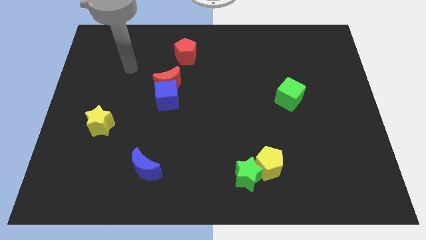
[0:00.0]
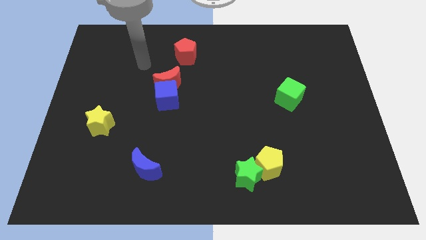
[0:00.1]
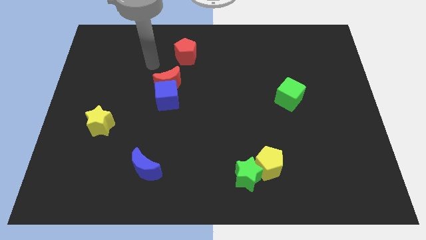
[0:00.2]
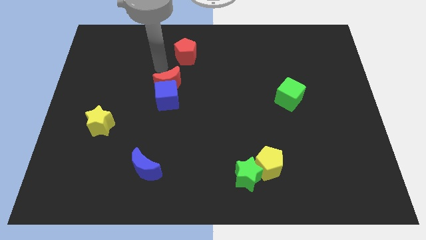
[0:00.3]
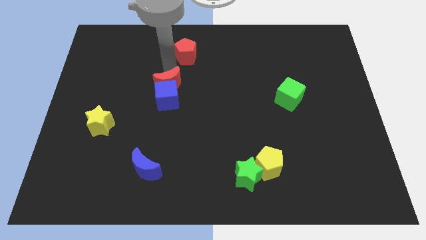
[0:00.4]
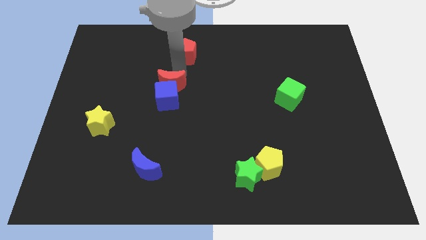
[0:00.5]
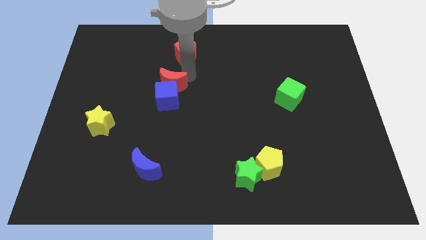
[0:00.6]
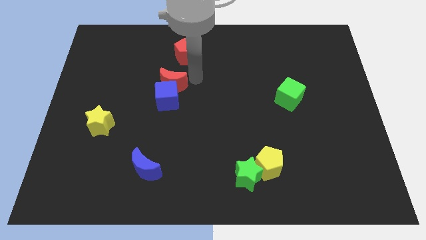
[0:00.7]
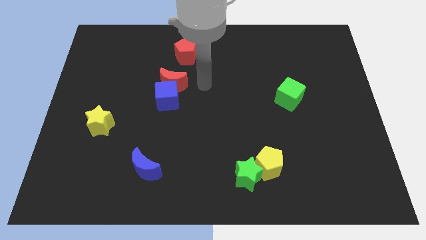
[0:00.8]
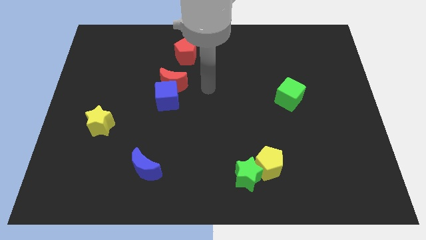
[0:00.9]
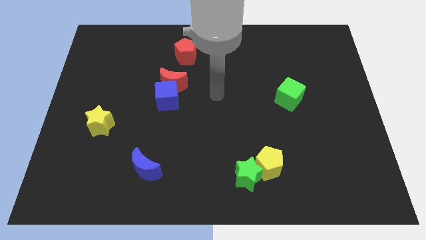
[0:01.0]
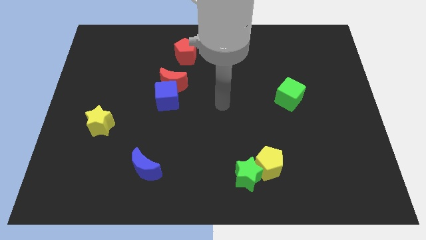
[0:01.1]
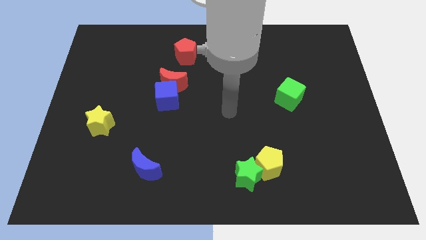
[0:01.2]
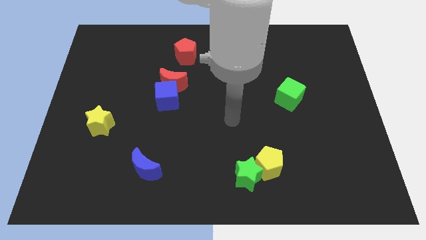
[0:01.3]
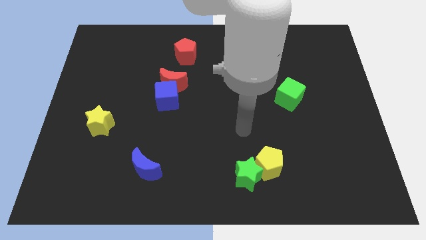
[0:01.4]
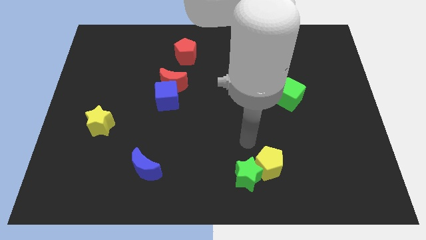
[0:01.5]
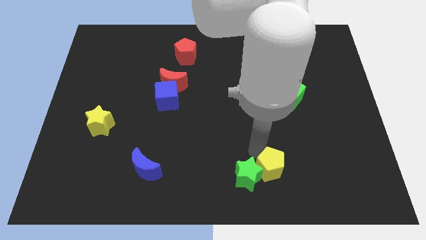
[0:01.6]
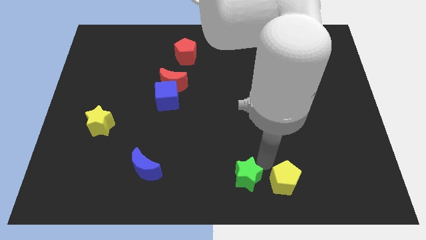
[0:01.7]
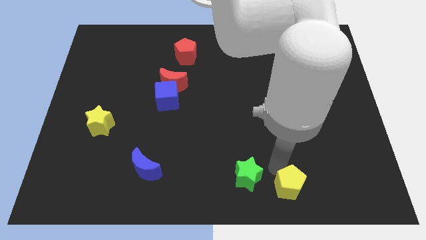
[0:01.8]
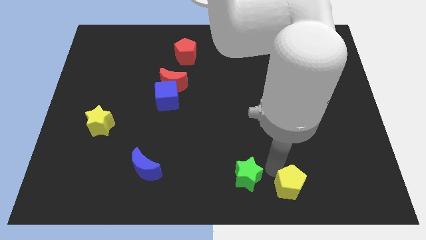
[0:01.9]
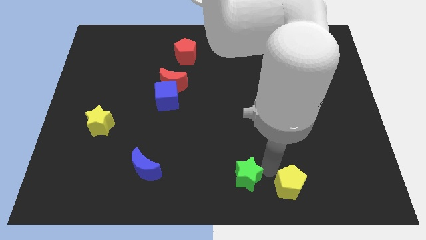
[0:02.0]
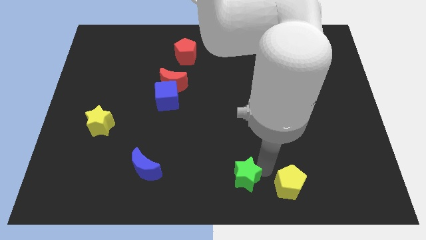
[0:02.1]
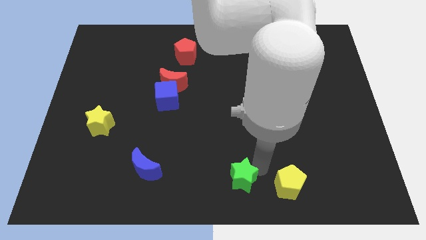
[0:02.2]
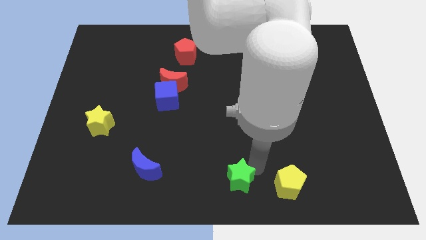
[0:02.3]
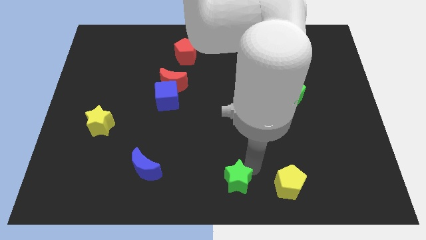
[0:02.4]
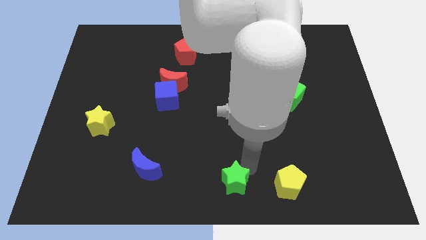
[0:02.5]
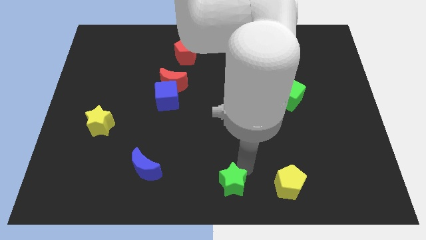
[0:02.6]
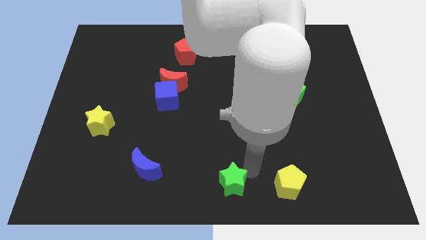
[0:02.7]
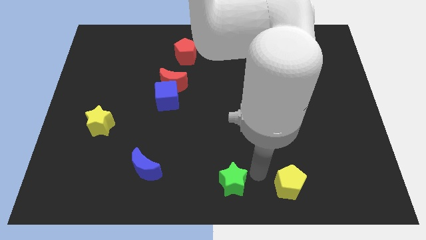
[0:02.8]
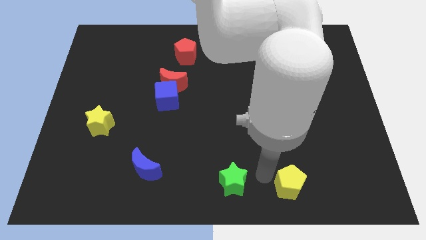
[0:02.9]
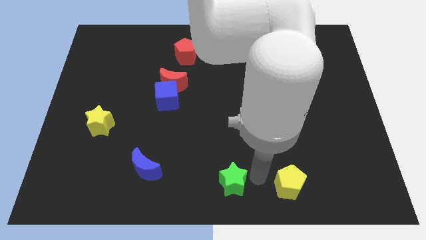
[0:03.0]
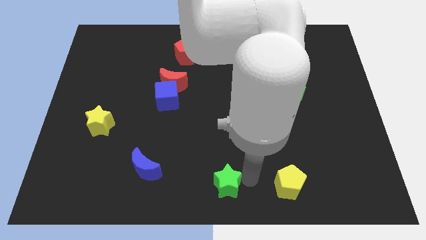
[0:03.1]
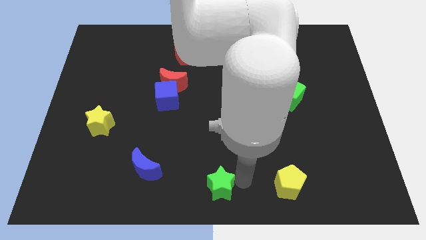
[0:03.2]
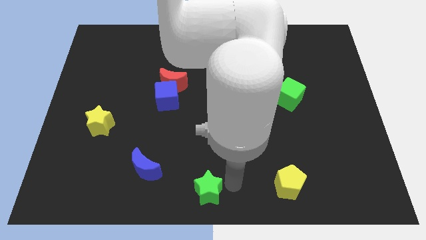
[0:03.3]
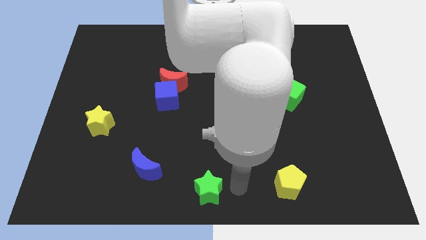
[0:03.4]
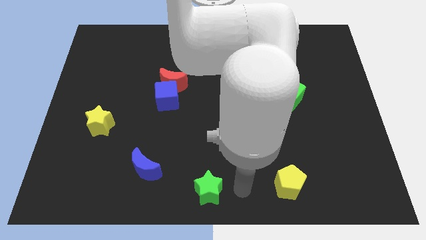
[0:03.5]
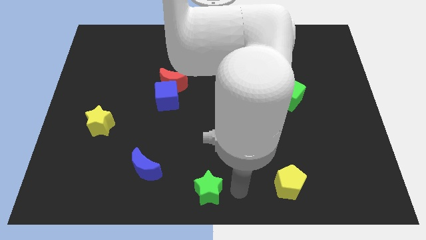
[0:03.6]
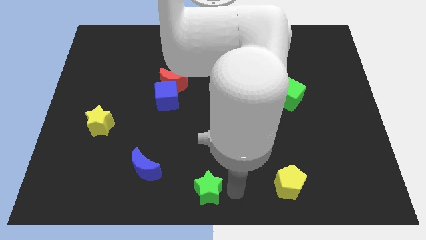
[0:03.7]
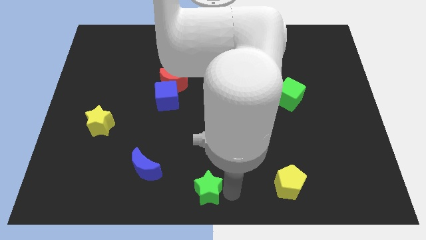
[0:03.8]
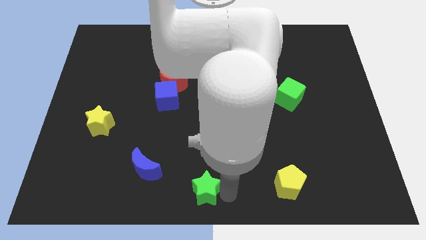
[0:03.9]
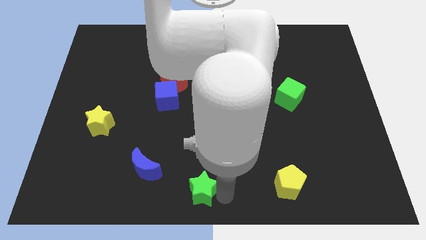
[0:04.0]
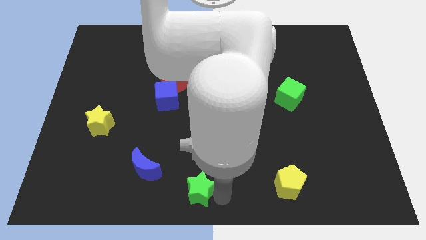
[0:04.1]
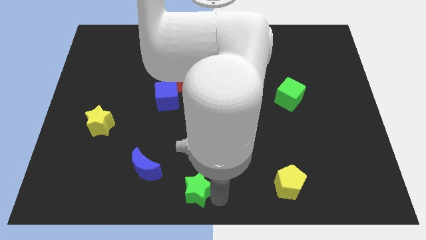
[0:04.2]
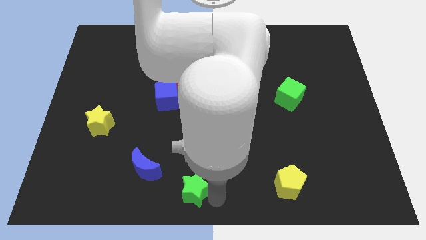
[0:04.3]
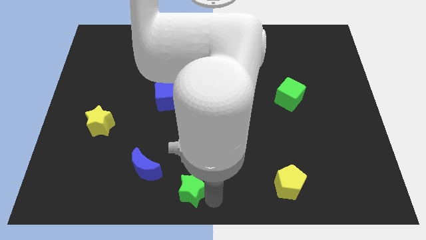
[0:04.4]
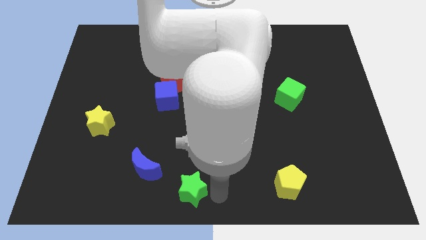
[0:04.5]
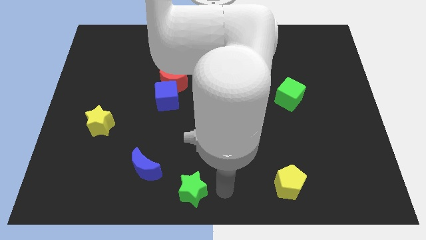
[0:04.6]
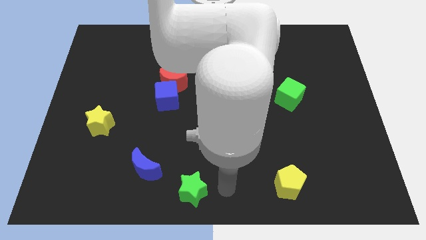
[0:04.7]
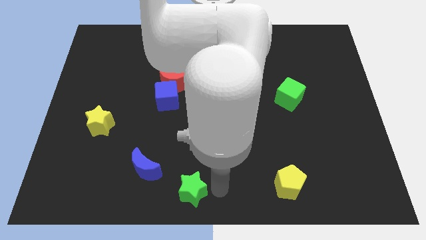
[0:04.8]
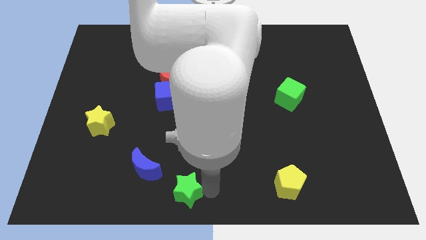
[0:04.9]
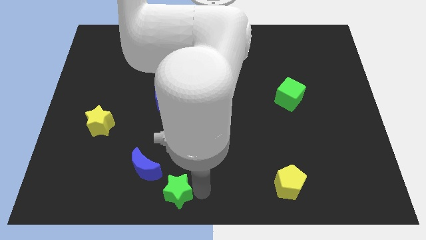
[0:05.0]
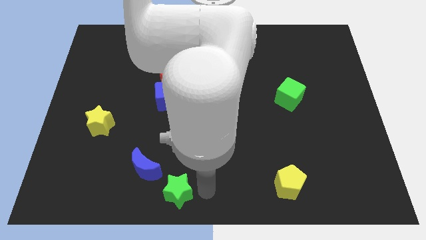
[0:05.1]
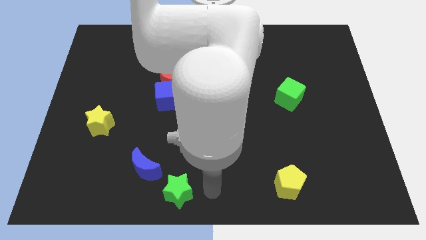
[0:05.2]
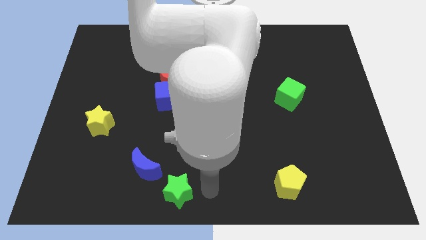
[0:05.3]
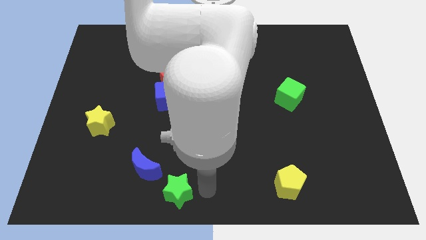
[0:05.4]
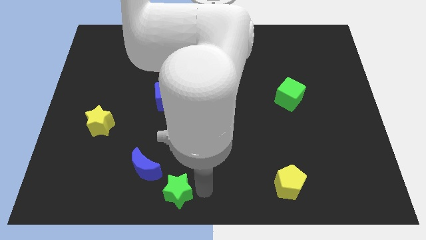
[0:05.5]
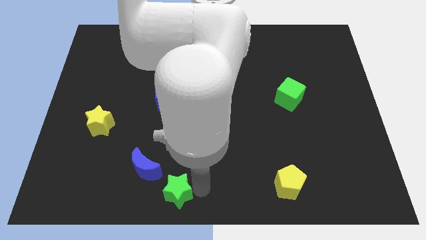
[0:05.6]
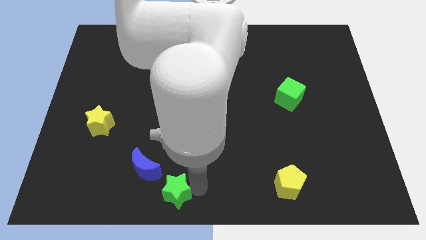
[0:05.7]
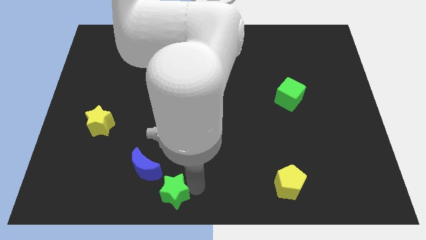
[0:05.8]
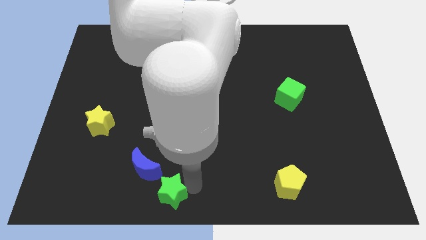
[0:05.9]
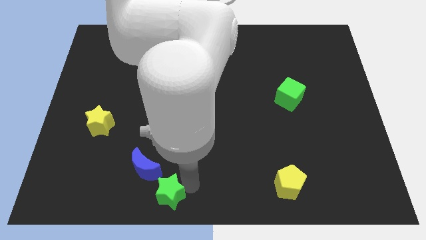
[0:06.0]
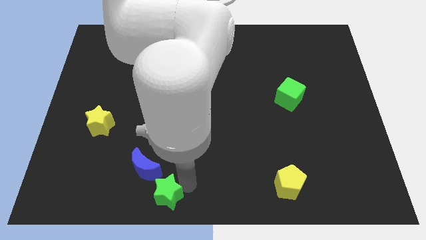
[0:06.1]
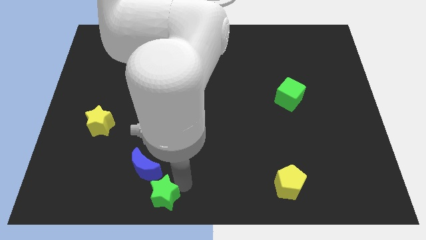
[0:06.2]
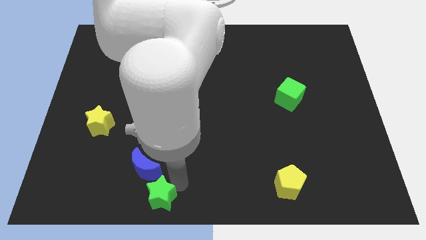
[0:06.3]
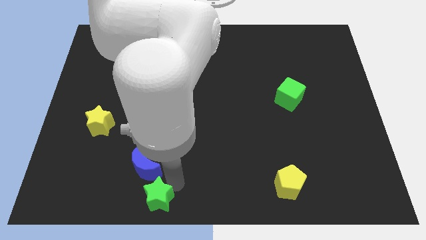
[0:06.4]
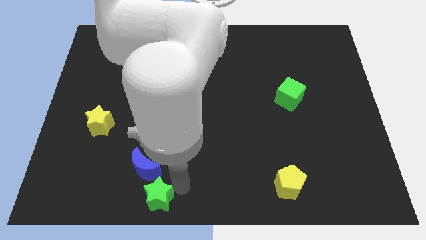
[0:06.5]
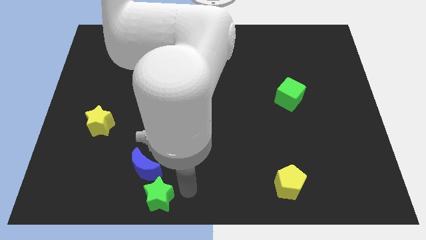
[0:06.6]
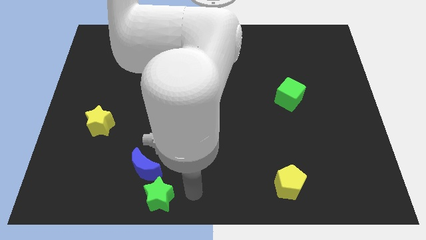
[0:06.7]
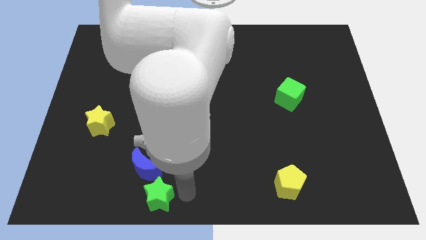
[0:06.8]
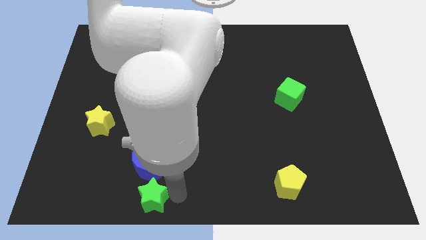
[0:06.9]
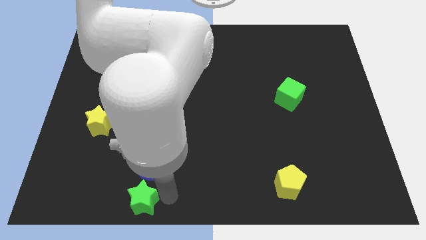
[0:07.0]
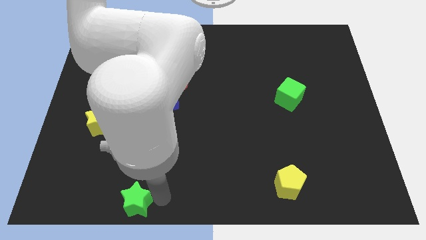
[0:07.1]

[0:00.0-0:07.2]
push the green star to the left

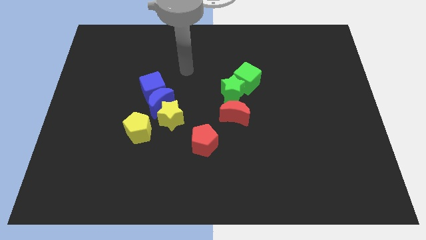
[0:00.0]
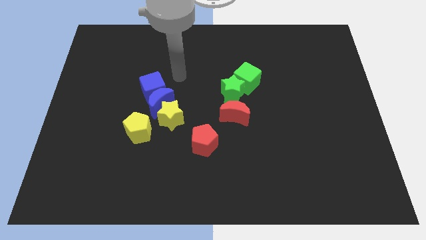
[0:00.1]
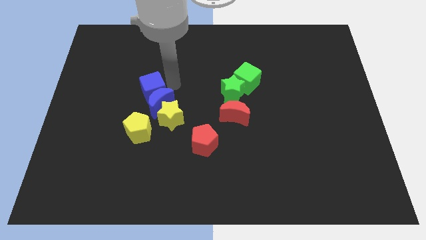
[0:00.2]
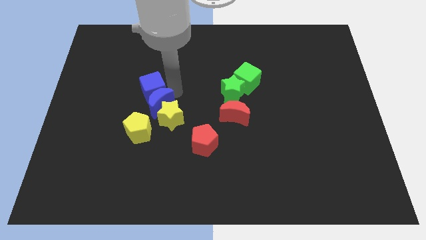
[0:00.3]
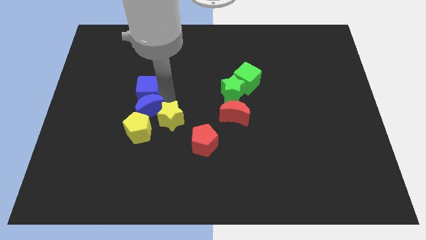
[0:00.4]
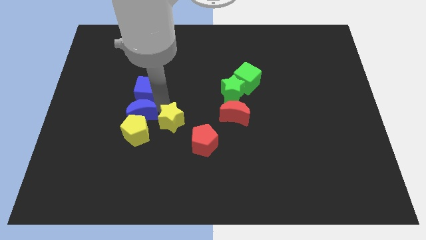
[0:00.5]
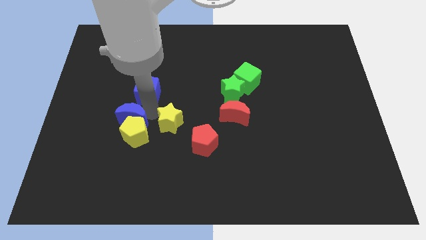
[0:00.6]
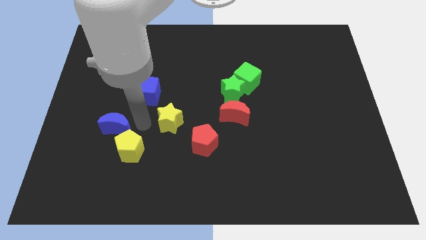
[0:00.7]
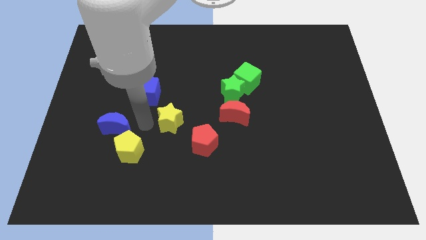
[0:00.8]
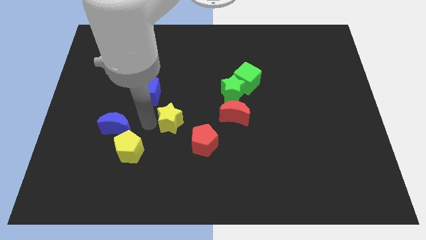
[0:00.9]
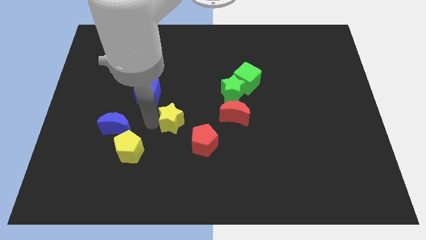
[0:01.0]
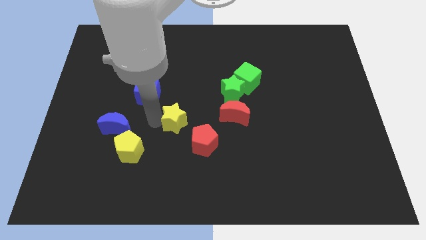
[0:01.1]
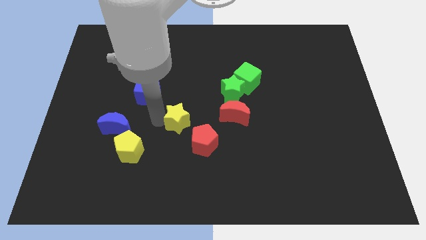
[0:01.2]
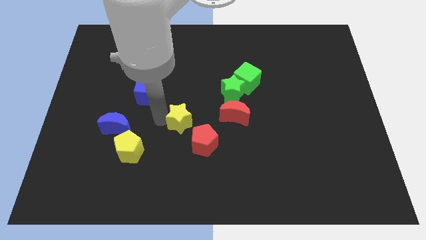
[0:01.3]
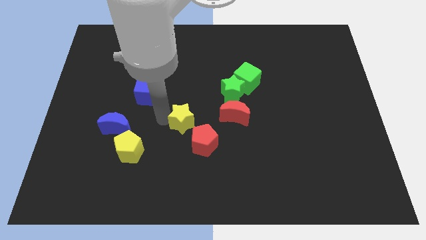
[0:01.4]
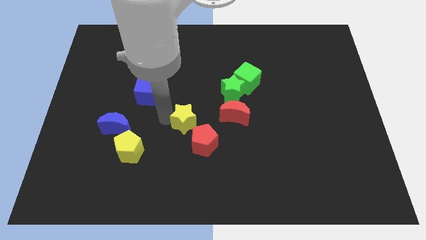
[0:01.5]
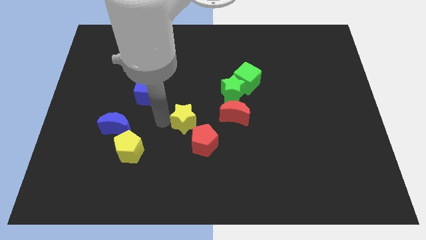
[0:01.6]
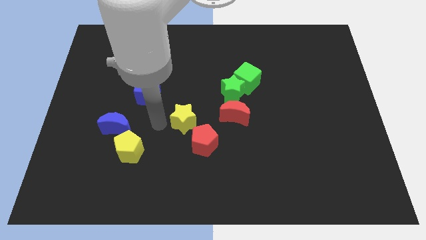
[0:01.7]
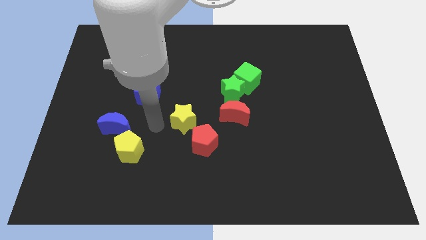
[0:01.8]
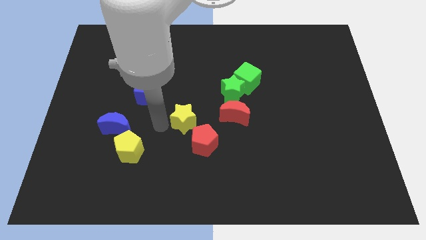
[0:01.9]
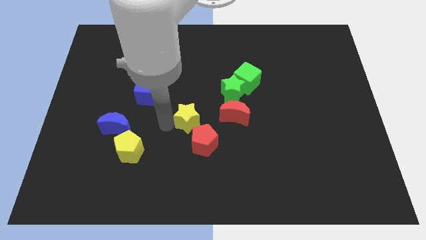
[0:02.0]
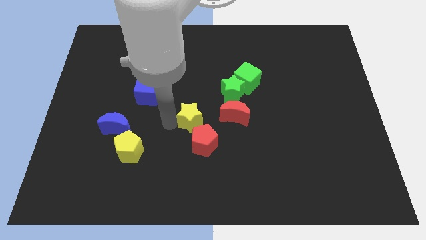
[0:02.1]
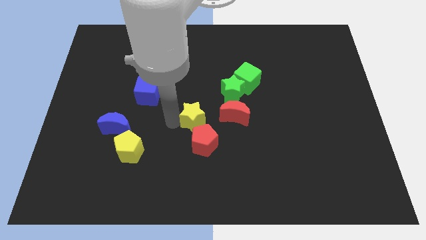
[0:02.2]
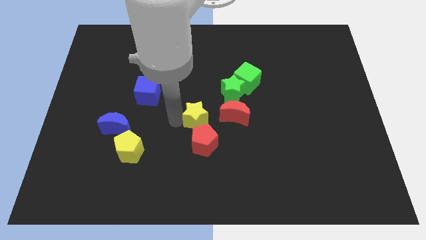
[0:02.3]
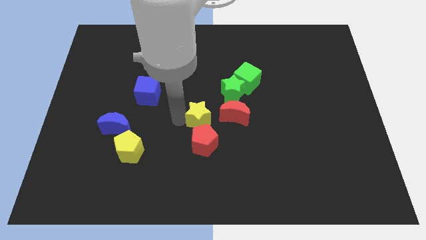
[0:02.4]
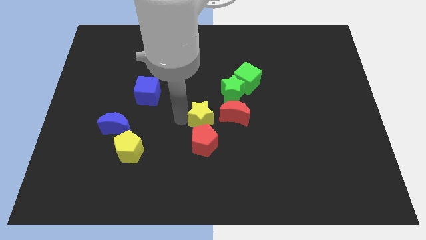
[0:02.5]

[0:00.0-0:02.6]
slightly push the yellow star right
